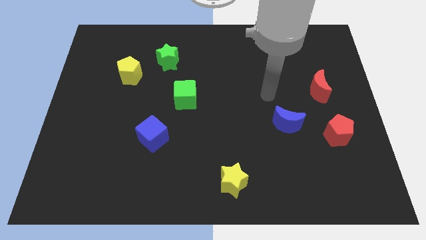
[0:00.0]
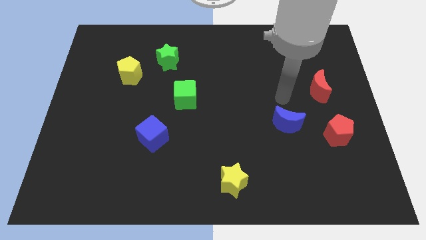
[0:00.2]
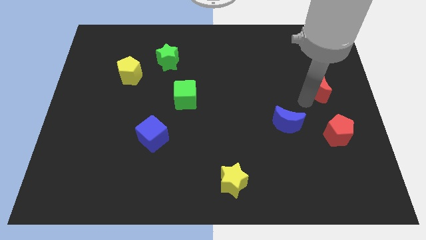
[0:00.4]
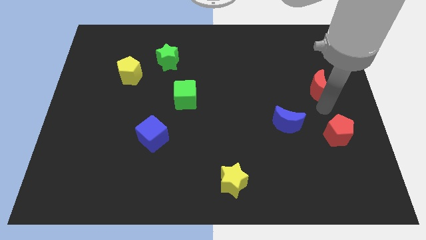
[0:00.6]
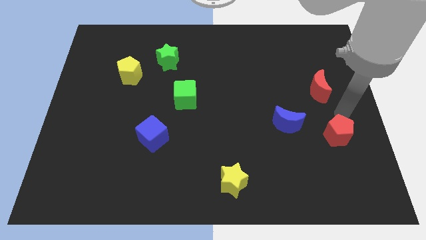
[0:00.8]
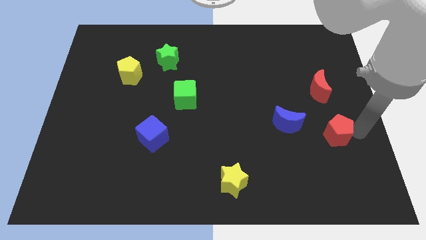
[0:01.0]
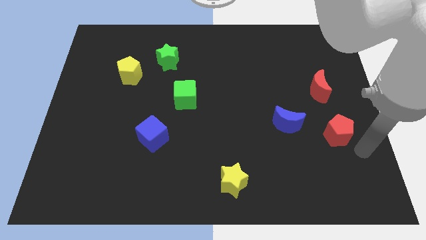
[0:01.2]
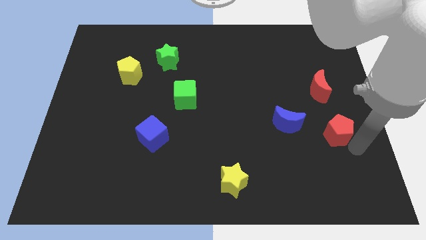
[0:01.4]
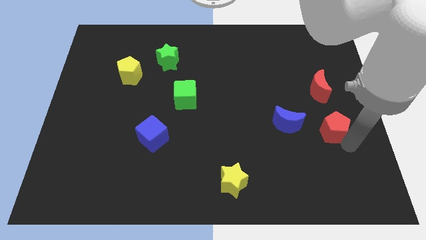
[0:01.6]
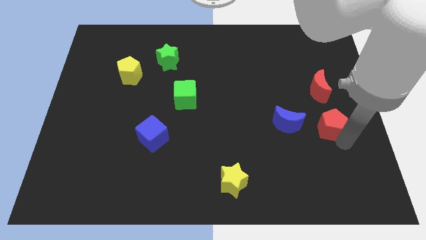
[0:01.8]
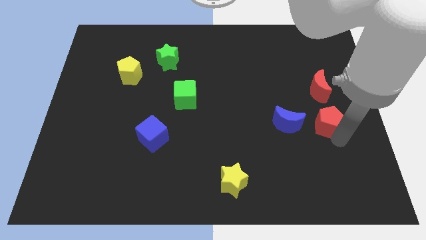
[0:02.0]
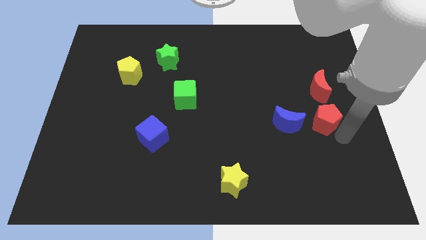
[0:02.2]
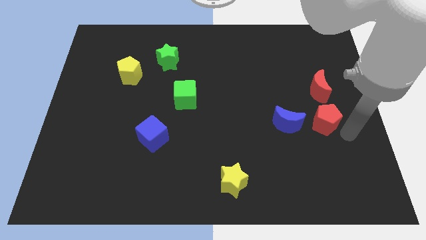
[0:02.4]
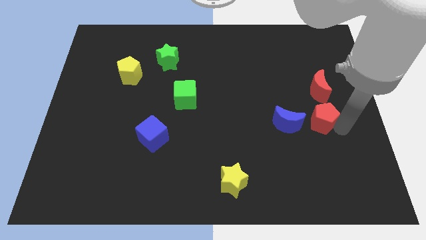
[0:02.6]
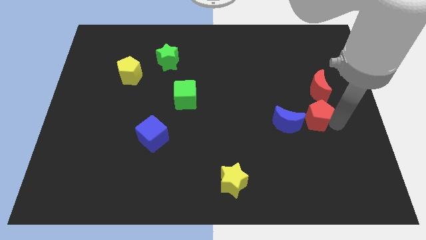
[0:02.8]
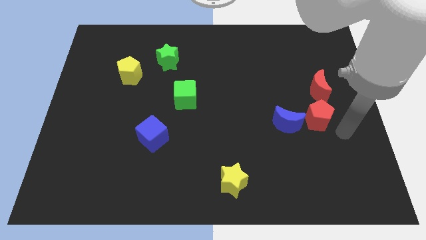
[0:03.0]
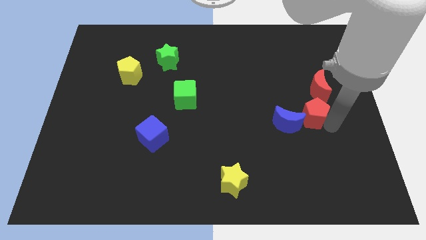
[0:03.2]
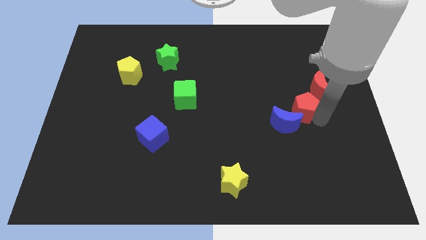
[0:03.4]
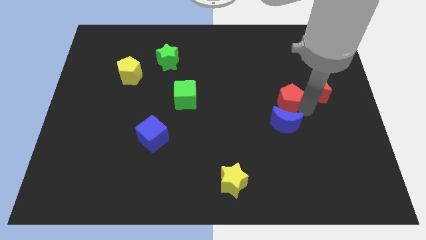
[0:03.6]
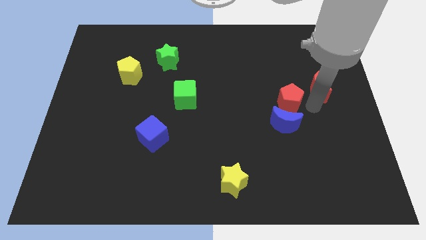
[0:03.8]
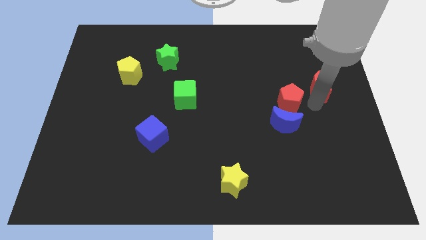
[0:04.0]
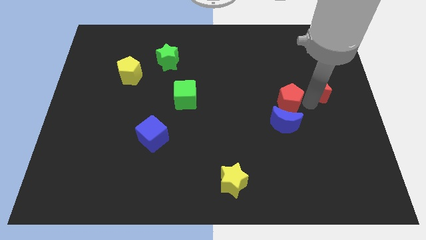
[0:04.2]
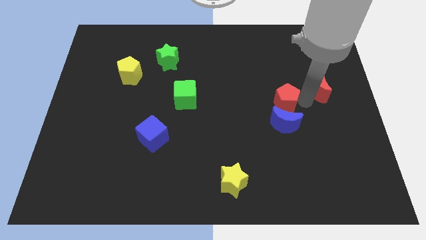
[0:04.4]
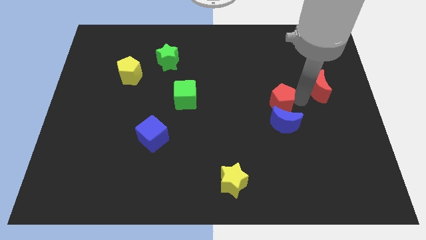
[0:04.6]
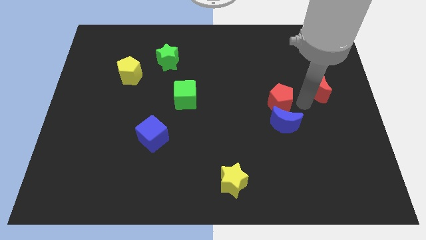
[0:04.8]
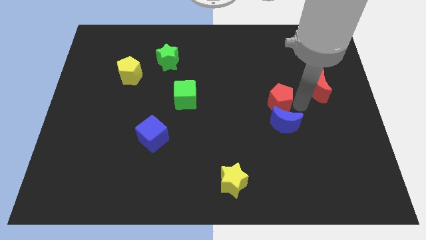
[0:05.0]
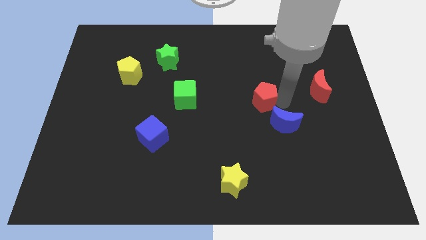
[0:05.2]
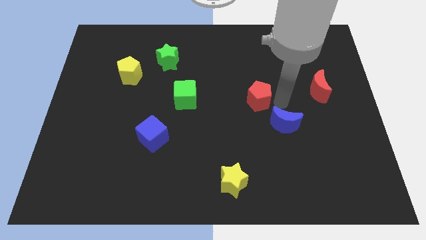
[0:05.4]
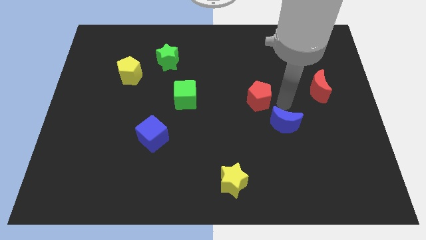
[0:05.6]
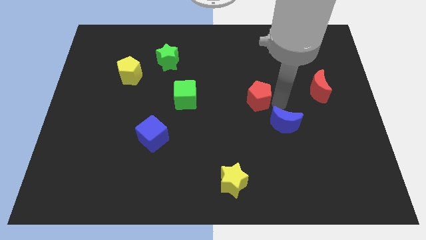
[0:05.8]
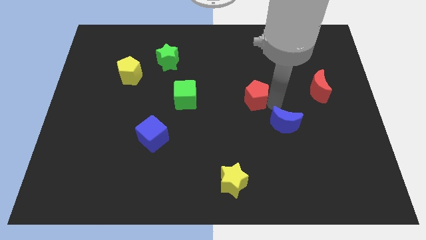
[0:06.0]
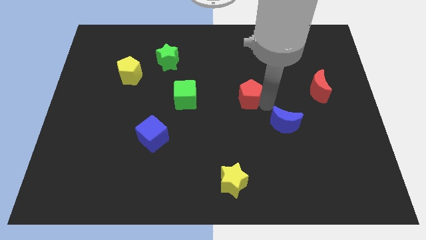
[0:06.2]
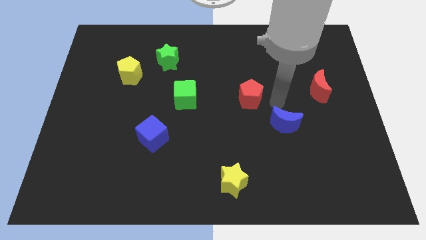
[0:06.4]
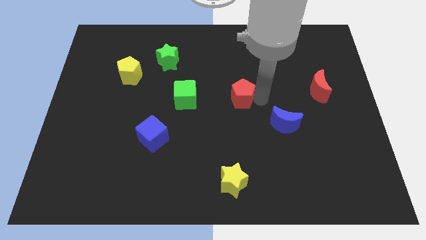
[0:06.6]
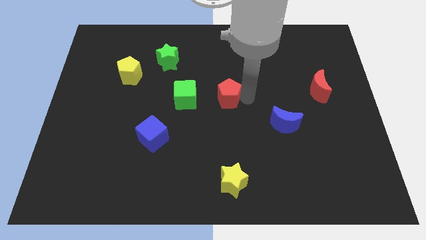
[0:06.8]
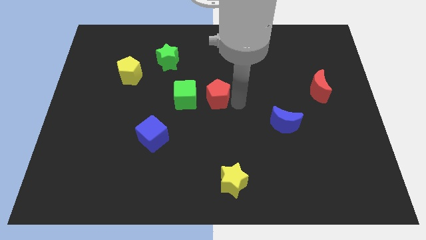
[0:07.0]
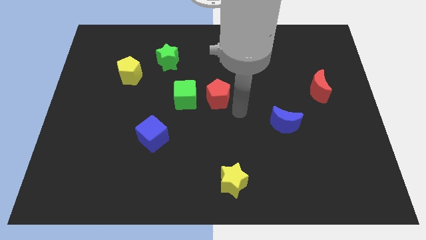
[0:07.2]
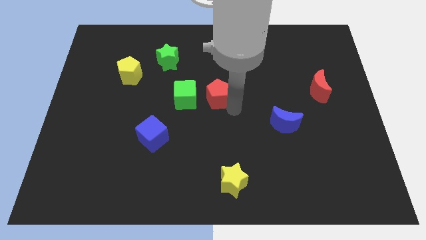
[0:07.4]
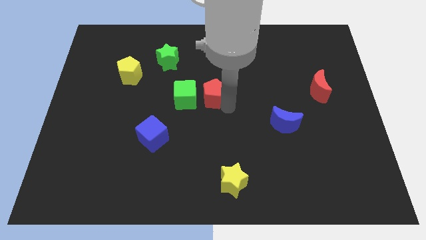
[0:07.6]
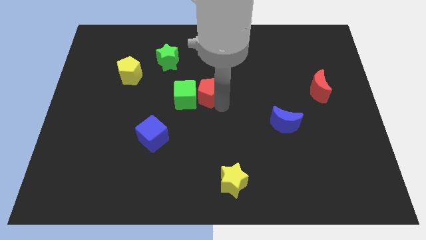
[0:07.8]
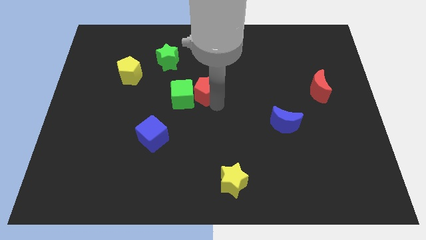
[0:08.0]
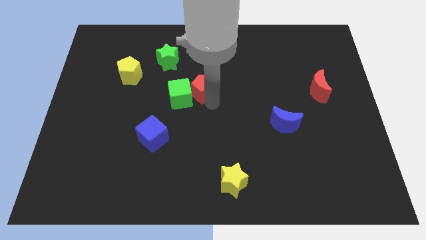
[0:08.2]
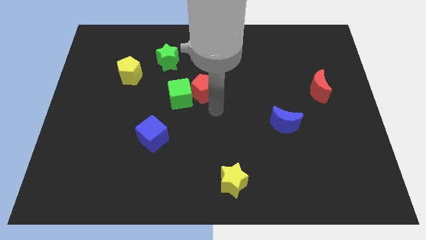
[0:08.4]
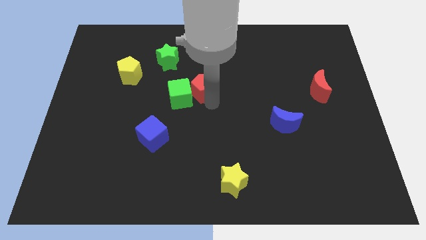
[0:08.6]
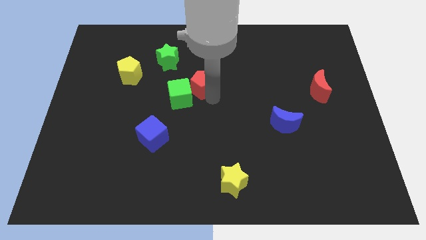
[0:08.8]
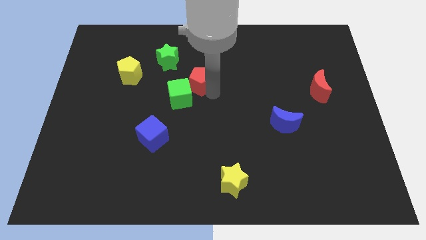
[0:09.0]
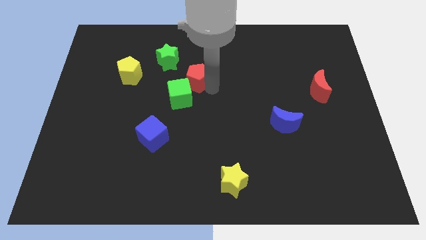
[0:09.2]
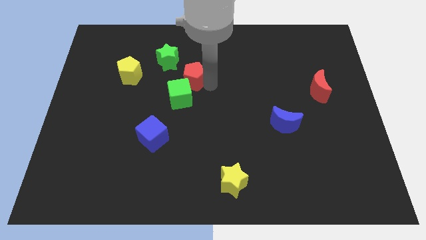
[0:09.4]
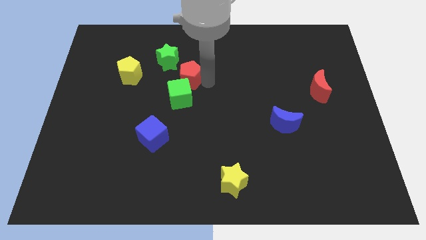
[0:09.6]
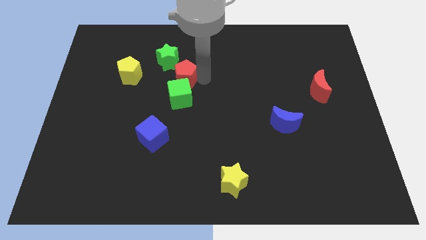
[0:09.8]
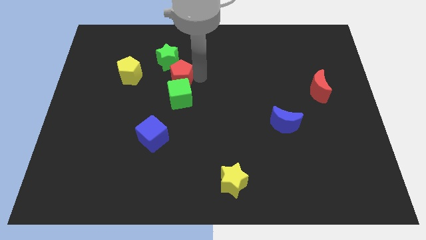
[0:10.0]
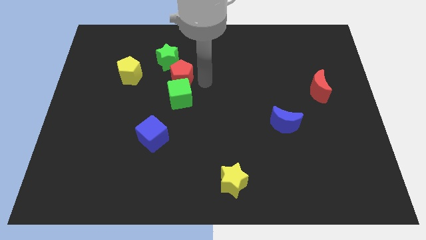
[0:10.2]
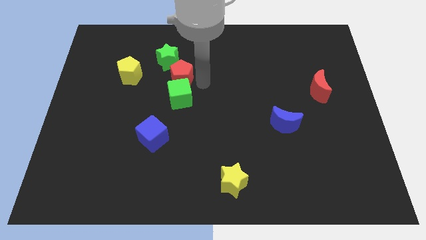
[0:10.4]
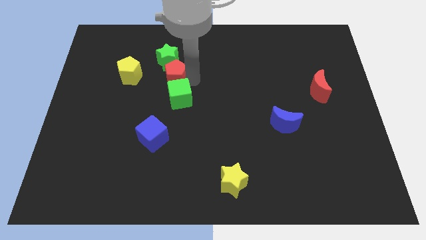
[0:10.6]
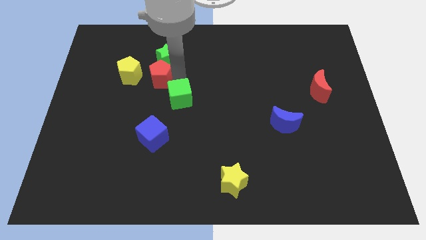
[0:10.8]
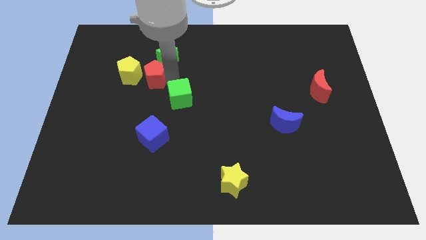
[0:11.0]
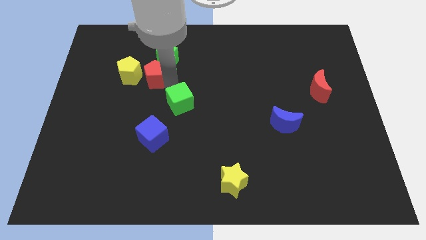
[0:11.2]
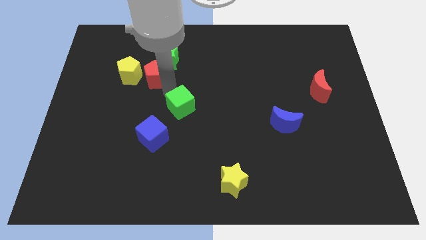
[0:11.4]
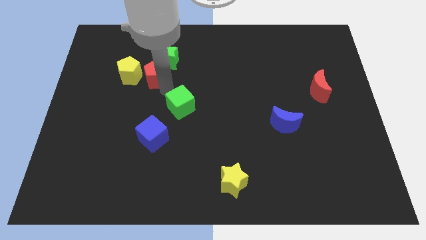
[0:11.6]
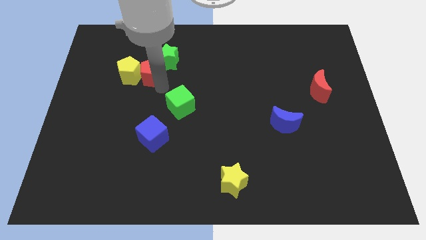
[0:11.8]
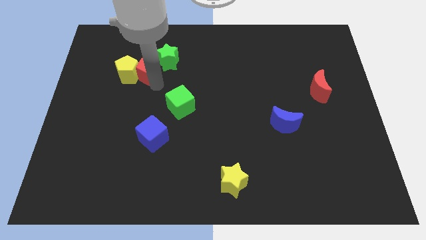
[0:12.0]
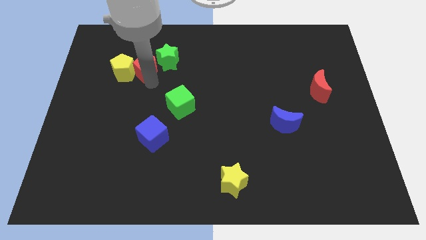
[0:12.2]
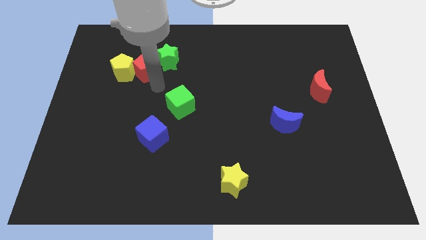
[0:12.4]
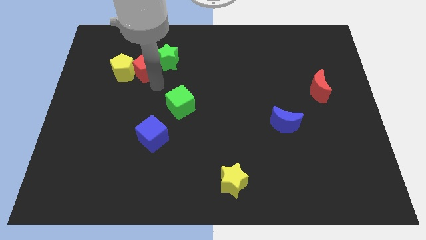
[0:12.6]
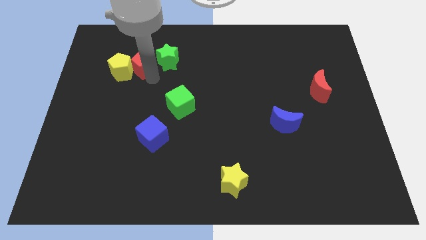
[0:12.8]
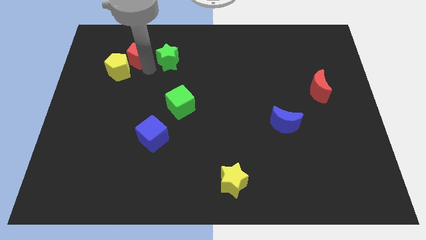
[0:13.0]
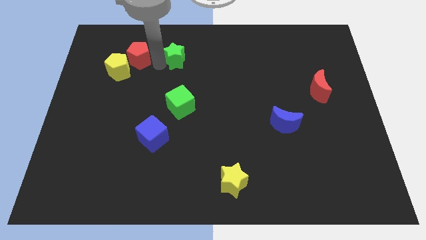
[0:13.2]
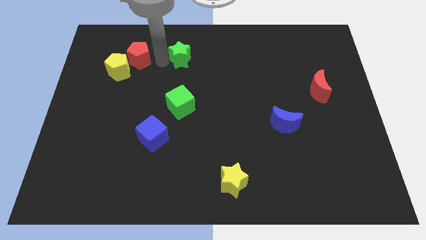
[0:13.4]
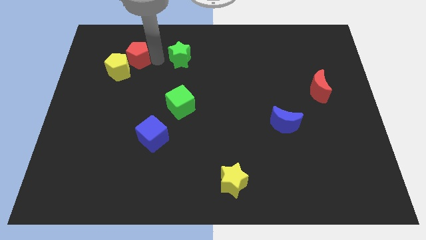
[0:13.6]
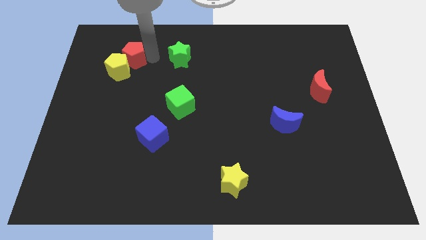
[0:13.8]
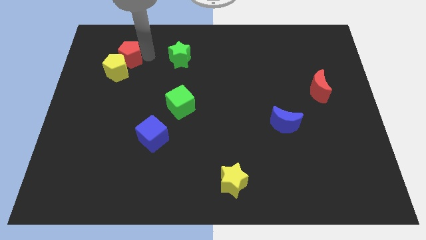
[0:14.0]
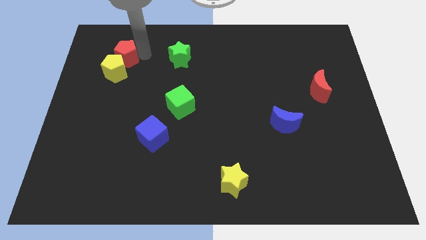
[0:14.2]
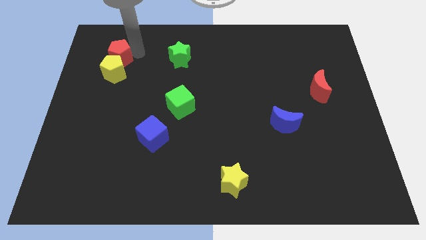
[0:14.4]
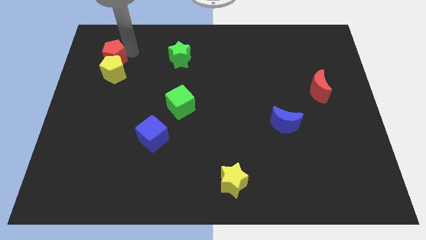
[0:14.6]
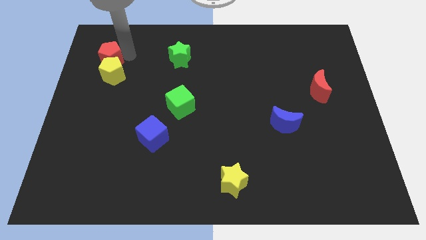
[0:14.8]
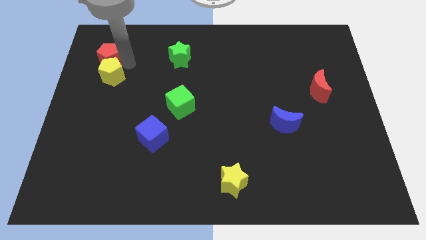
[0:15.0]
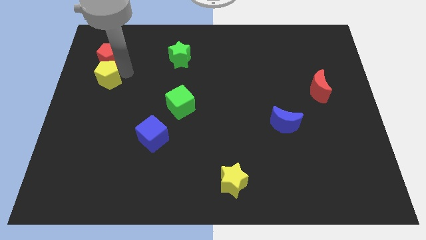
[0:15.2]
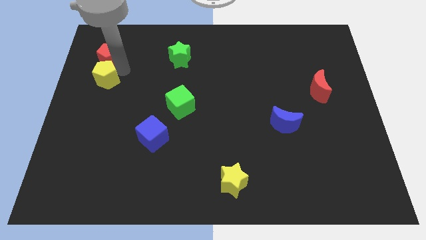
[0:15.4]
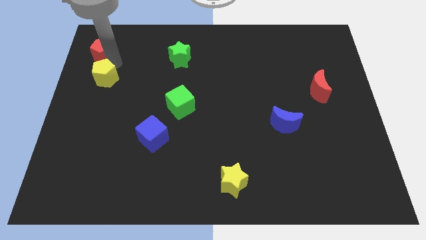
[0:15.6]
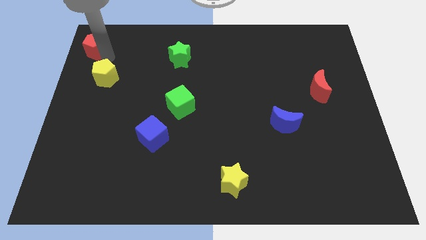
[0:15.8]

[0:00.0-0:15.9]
push the red pentagon to the top left corner
